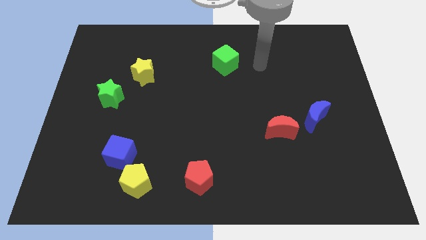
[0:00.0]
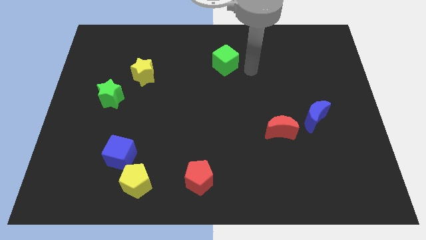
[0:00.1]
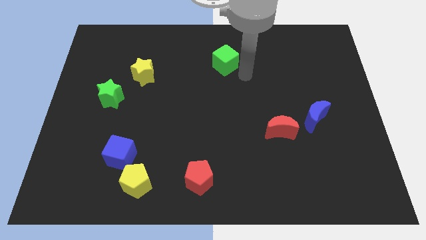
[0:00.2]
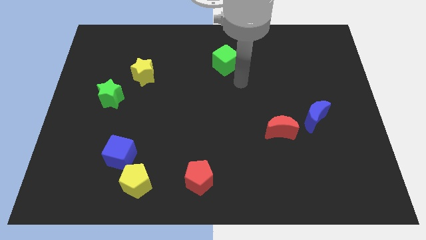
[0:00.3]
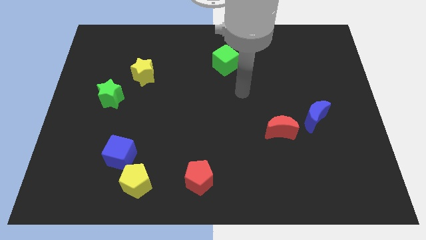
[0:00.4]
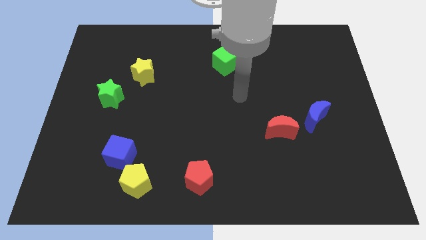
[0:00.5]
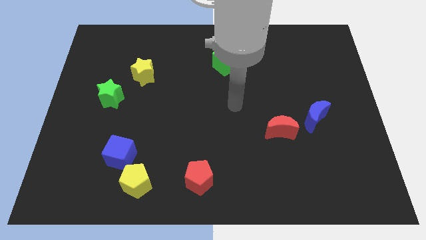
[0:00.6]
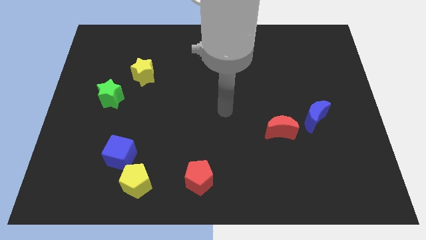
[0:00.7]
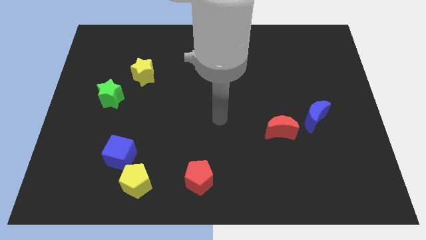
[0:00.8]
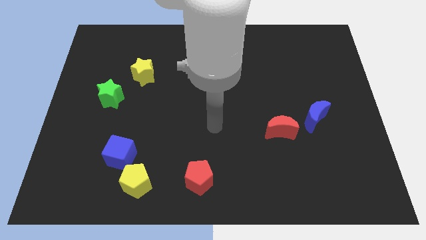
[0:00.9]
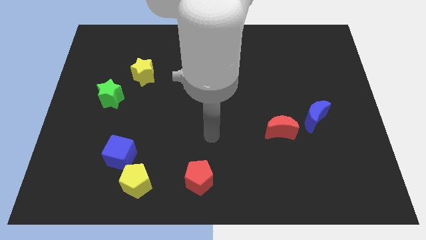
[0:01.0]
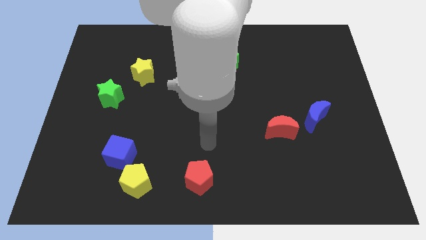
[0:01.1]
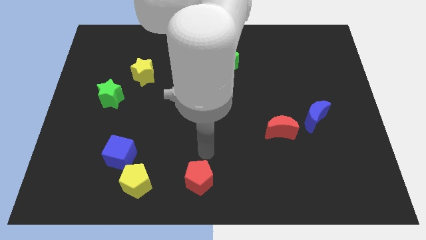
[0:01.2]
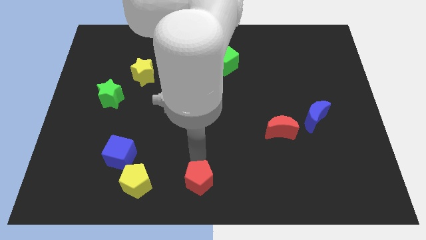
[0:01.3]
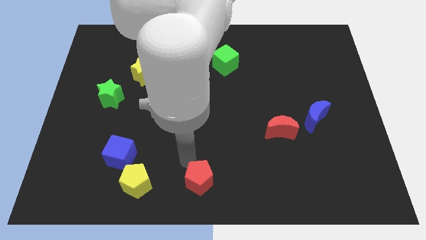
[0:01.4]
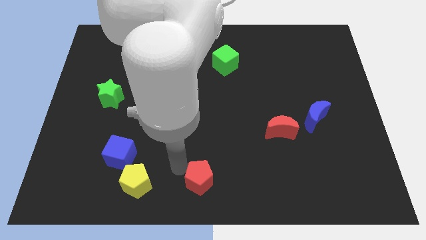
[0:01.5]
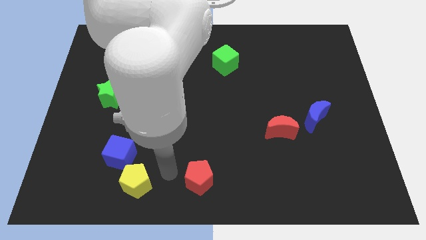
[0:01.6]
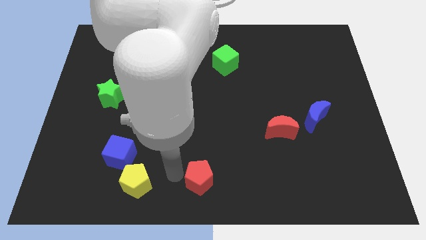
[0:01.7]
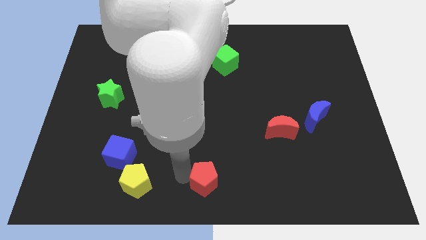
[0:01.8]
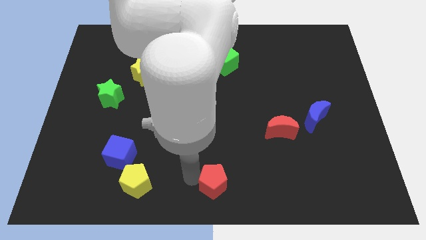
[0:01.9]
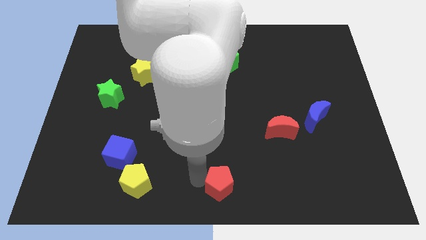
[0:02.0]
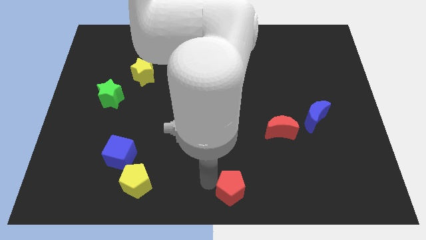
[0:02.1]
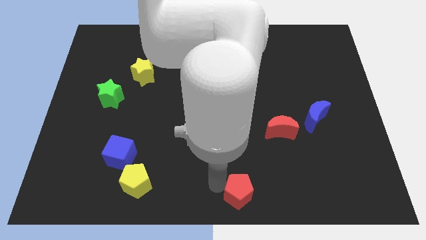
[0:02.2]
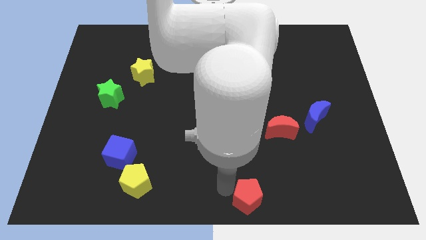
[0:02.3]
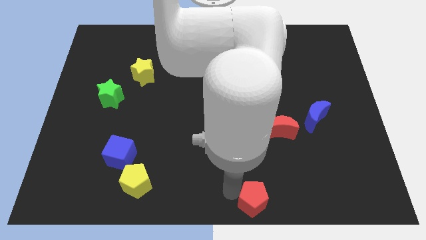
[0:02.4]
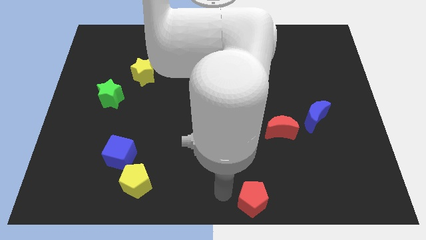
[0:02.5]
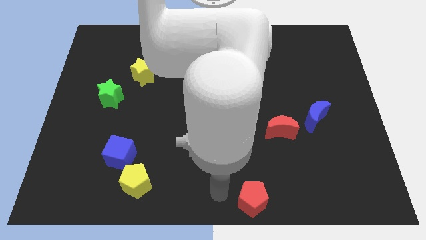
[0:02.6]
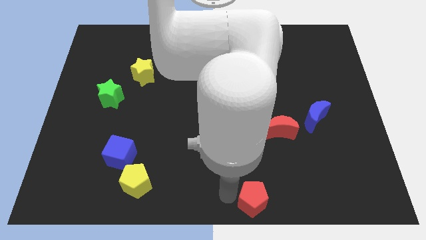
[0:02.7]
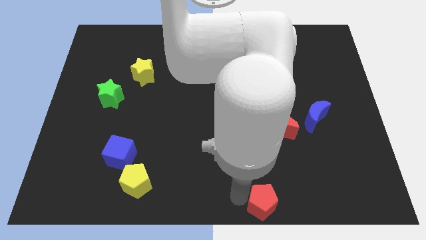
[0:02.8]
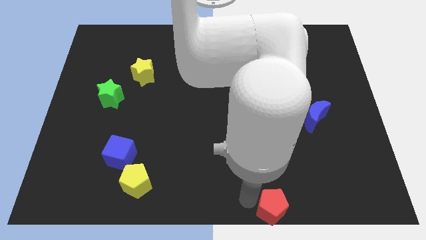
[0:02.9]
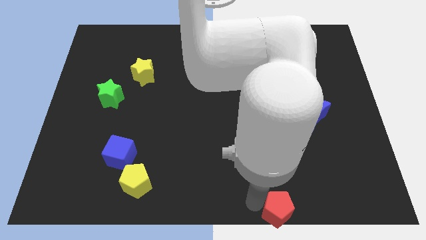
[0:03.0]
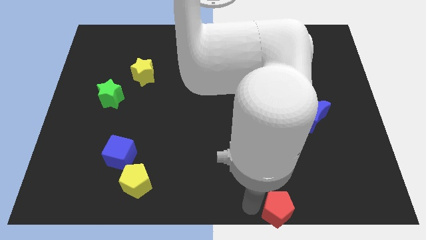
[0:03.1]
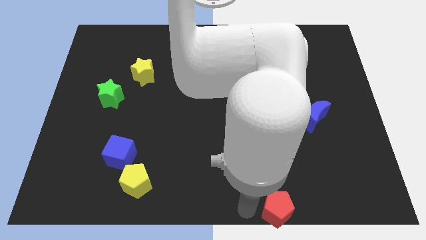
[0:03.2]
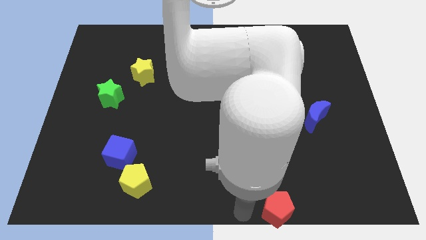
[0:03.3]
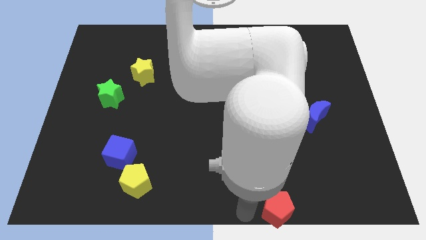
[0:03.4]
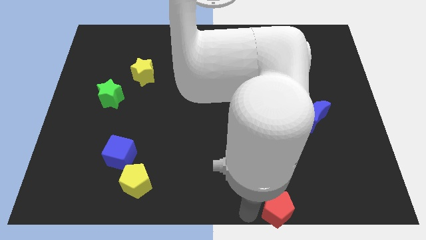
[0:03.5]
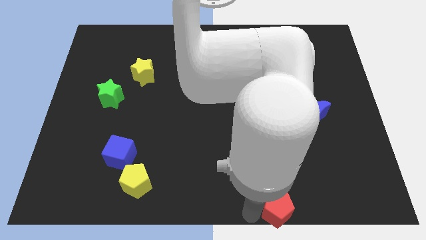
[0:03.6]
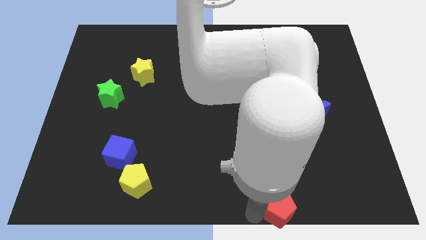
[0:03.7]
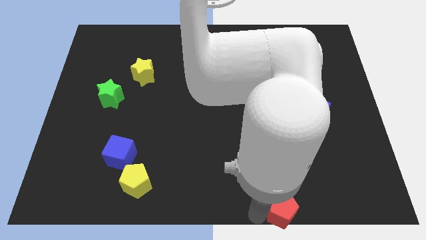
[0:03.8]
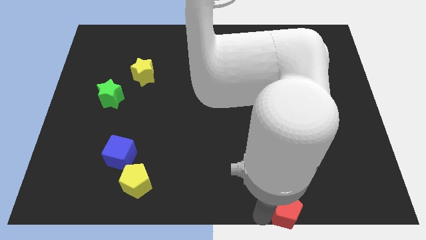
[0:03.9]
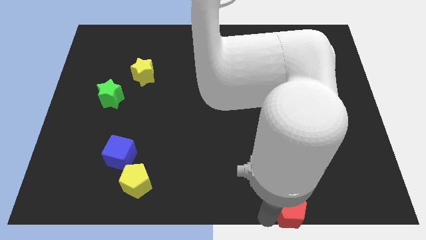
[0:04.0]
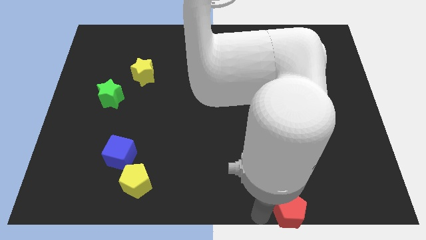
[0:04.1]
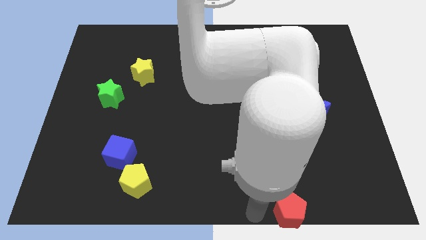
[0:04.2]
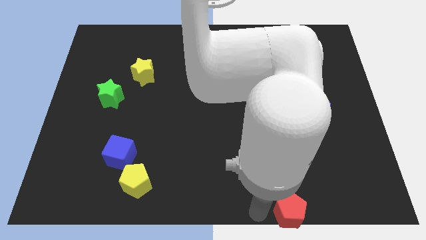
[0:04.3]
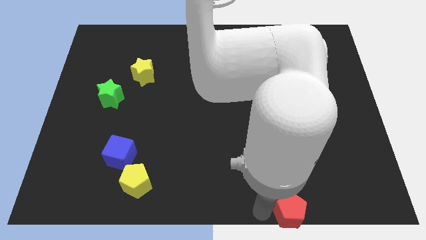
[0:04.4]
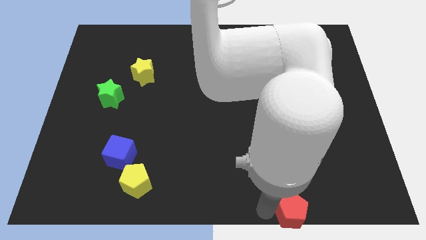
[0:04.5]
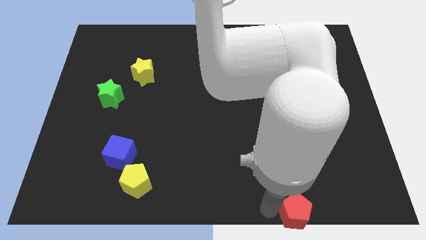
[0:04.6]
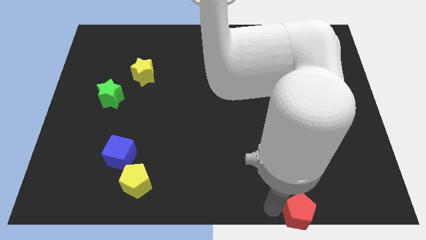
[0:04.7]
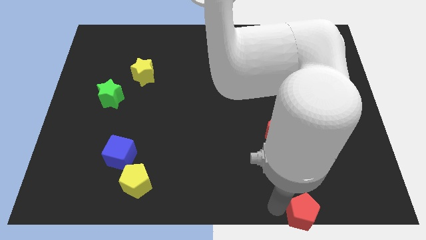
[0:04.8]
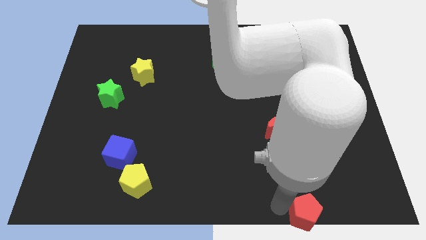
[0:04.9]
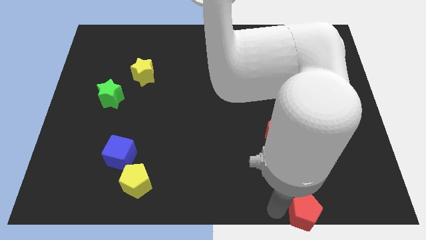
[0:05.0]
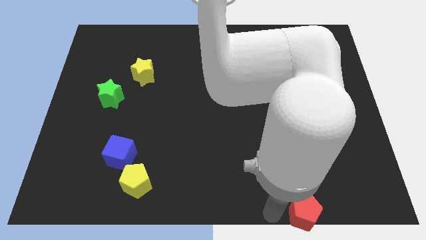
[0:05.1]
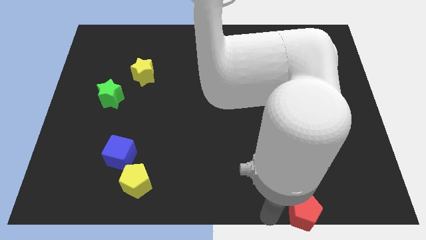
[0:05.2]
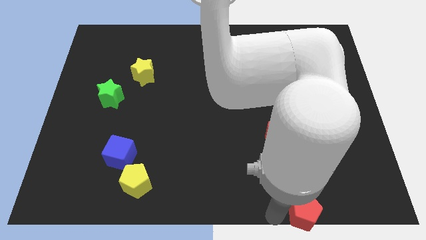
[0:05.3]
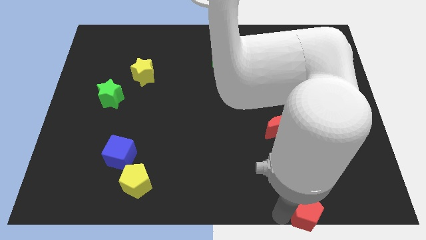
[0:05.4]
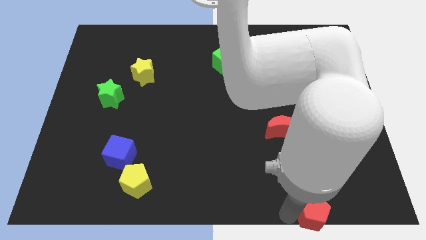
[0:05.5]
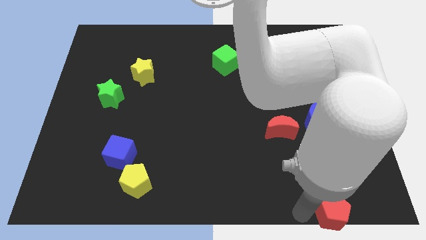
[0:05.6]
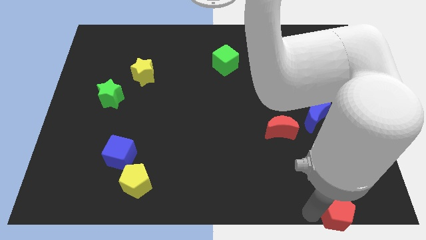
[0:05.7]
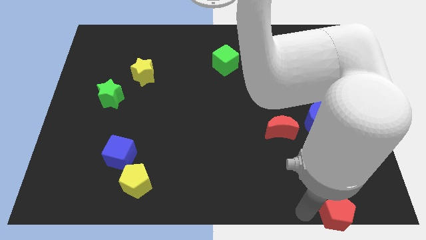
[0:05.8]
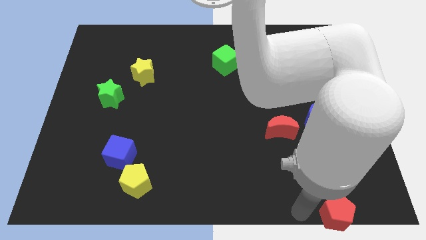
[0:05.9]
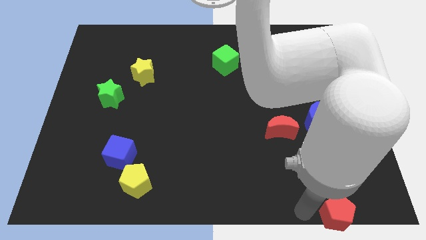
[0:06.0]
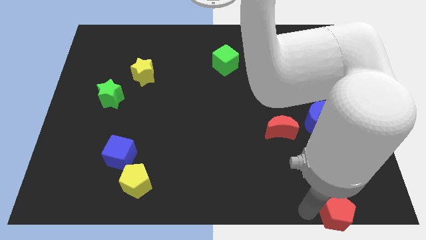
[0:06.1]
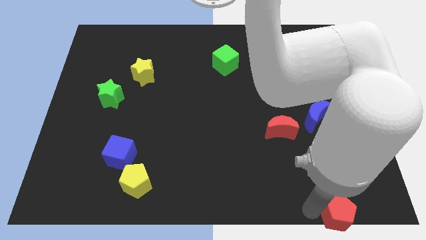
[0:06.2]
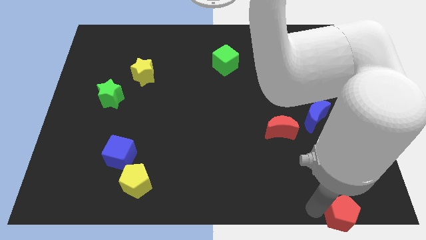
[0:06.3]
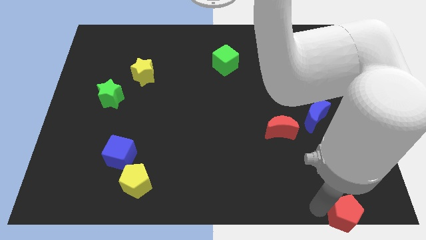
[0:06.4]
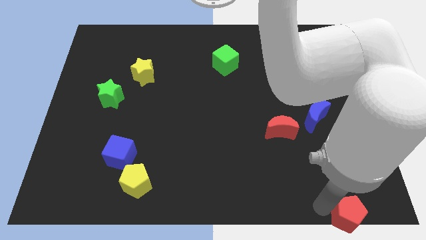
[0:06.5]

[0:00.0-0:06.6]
push the red pentagon to the bottom right corner

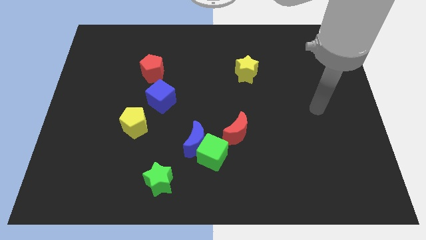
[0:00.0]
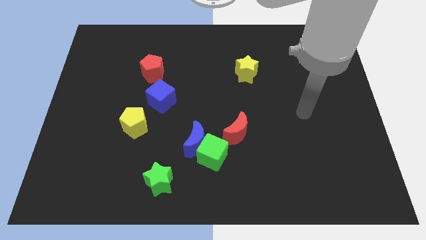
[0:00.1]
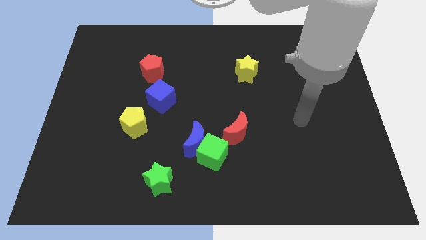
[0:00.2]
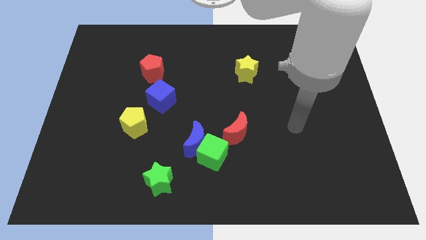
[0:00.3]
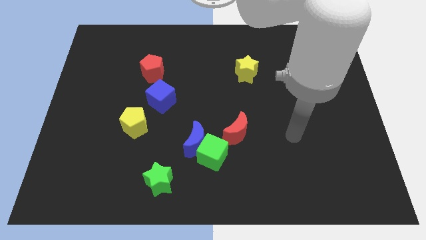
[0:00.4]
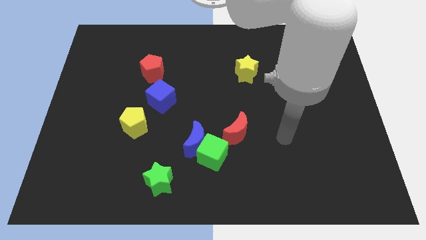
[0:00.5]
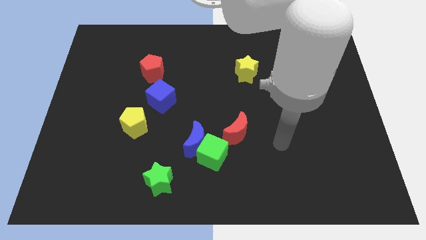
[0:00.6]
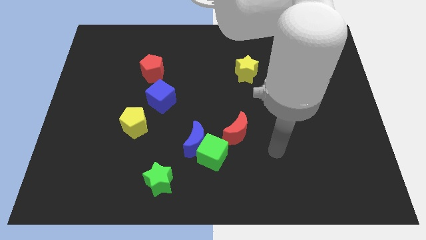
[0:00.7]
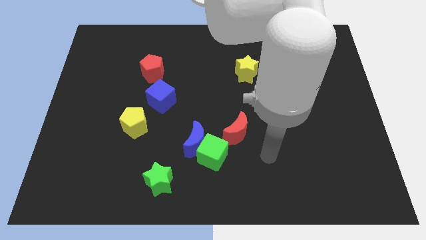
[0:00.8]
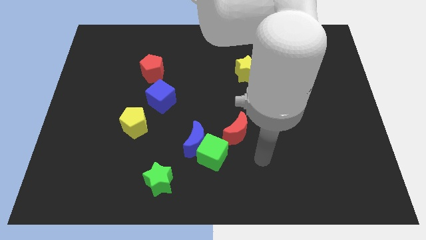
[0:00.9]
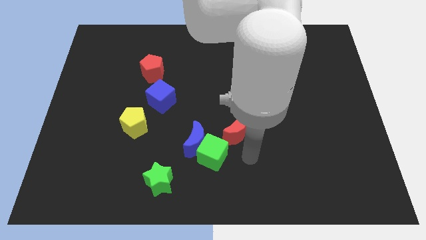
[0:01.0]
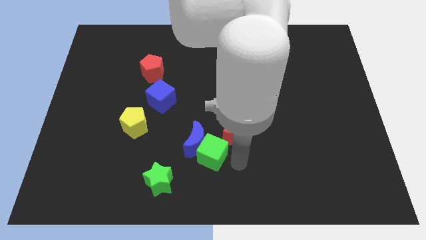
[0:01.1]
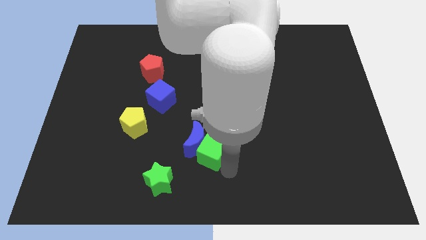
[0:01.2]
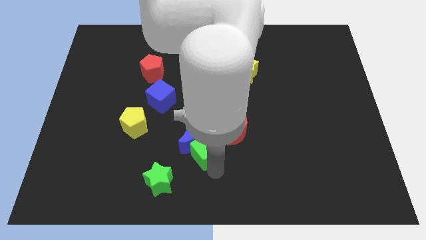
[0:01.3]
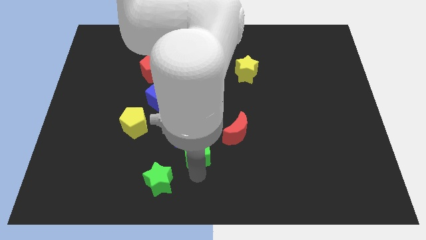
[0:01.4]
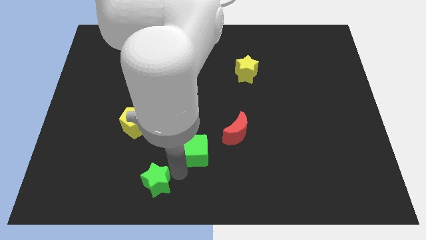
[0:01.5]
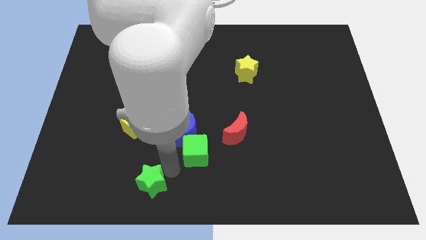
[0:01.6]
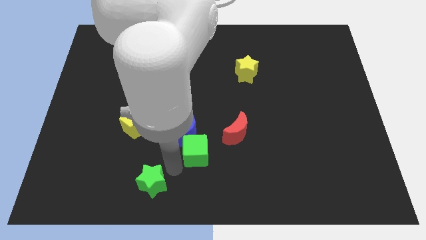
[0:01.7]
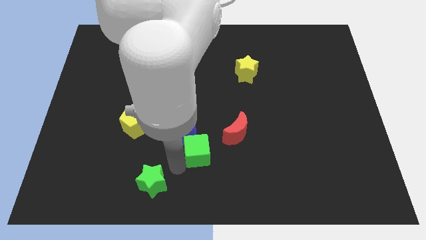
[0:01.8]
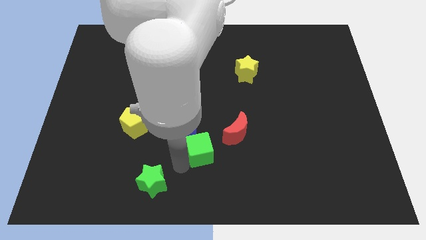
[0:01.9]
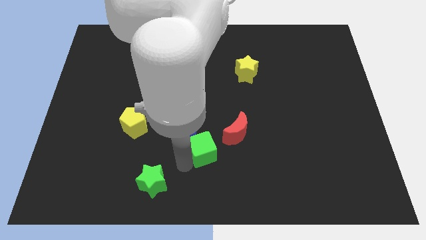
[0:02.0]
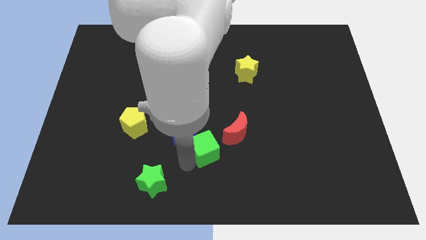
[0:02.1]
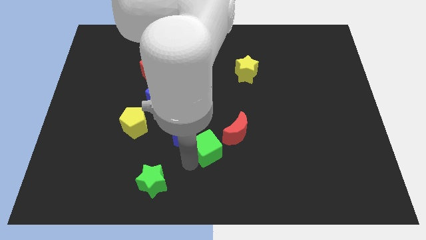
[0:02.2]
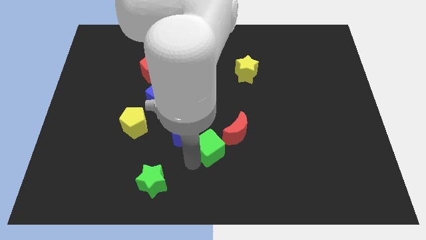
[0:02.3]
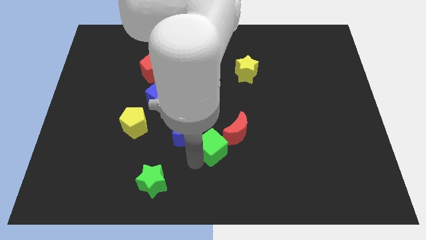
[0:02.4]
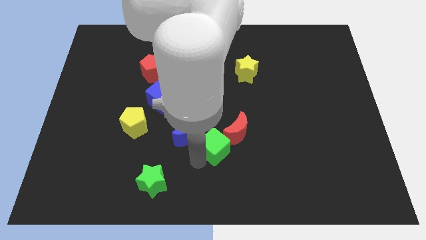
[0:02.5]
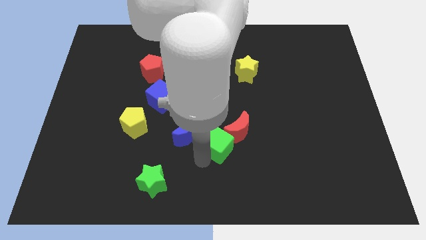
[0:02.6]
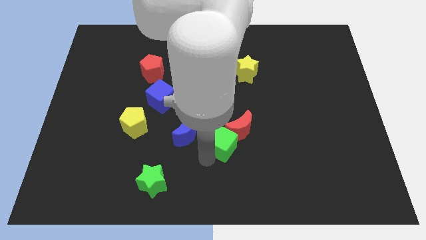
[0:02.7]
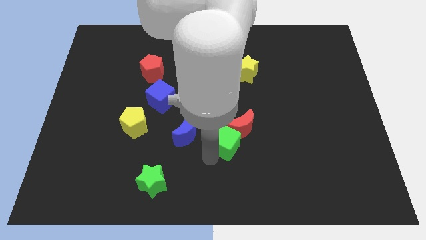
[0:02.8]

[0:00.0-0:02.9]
slide the green cube to the center
